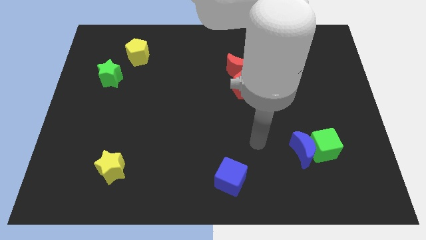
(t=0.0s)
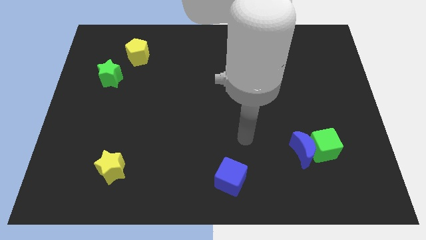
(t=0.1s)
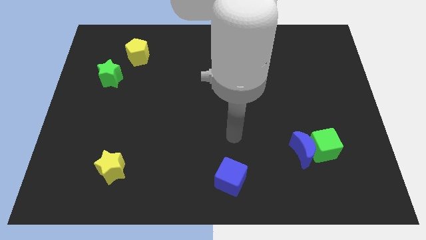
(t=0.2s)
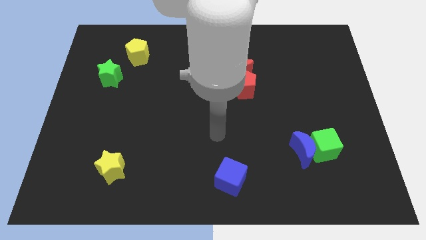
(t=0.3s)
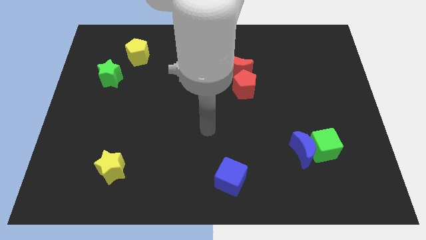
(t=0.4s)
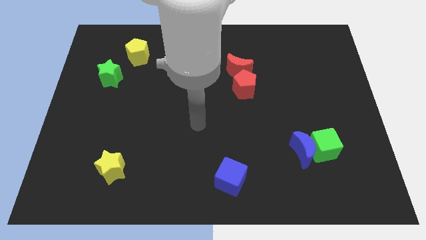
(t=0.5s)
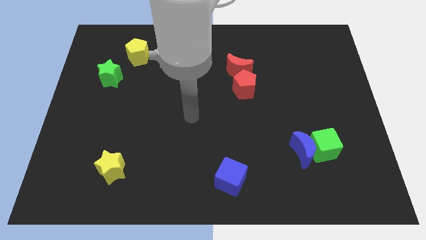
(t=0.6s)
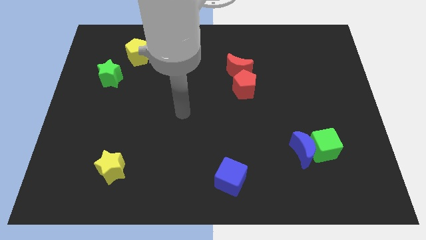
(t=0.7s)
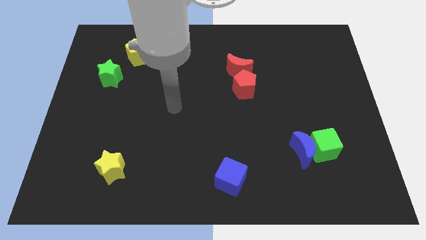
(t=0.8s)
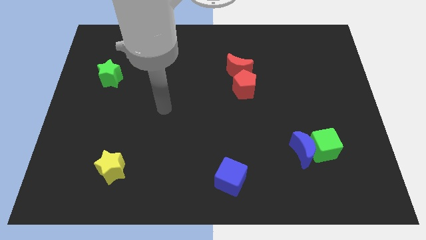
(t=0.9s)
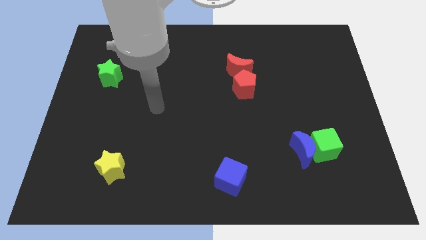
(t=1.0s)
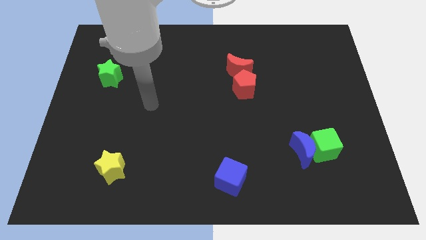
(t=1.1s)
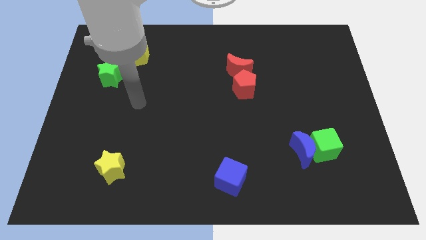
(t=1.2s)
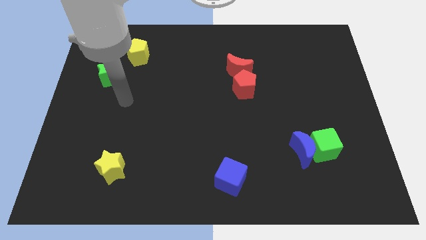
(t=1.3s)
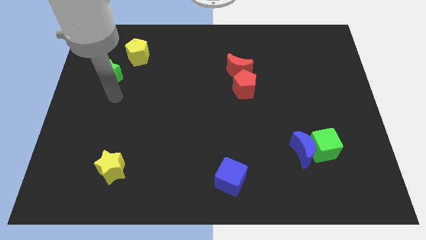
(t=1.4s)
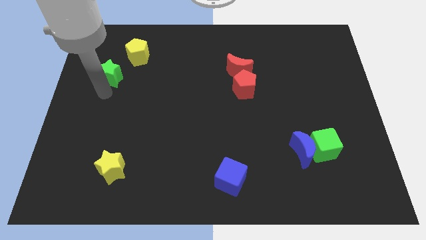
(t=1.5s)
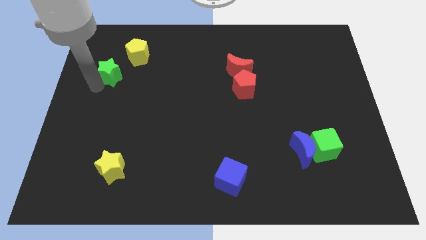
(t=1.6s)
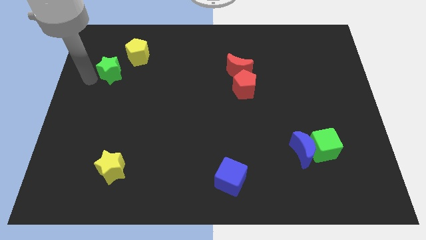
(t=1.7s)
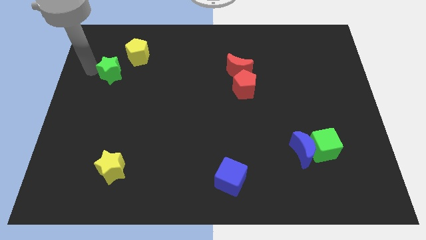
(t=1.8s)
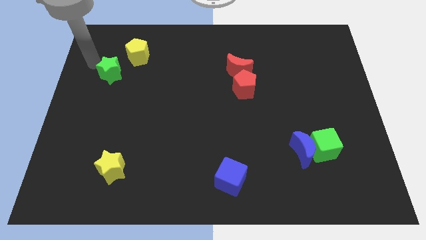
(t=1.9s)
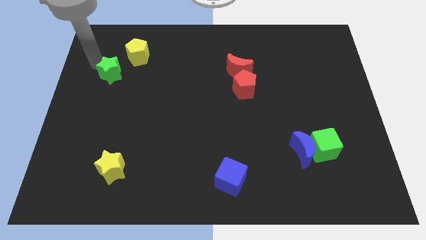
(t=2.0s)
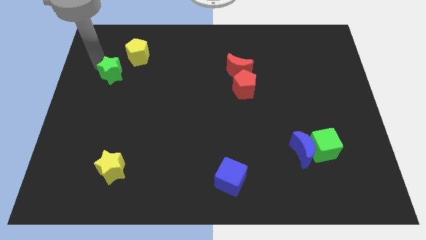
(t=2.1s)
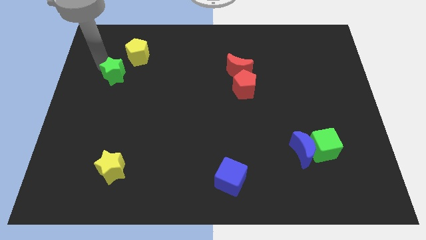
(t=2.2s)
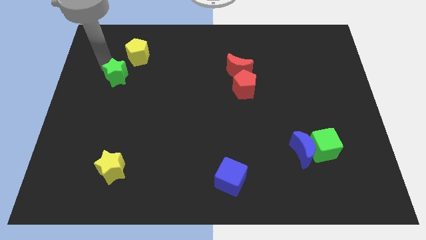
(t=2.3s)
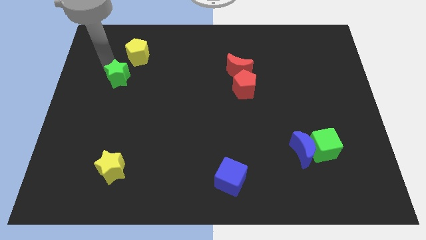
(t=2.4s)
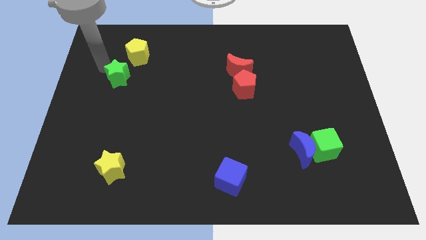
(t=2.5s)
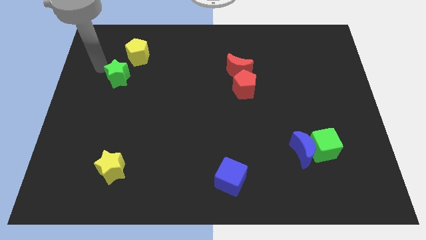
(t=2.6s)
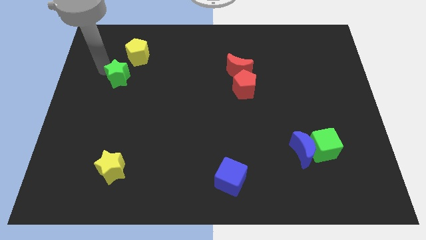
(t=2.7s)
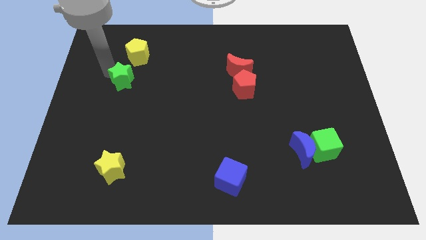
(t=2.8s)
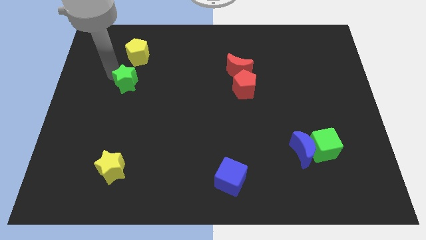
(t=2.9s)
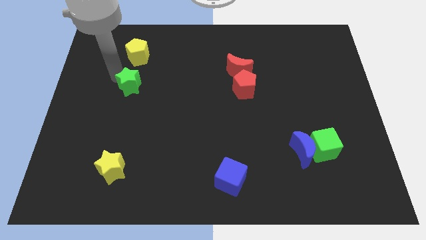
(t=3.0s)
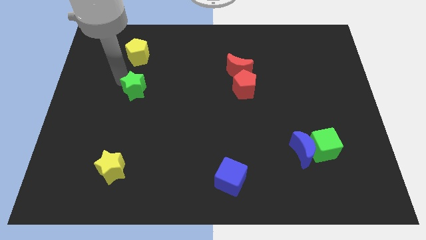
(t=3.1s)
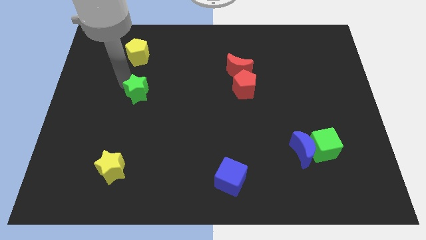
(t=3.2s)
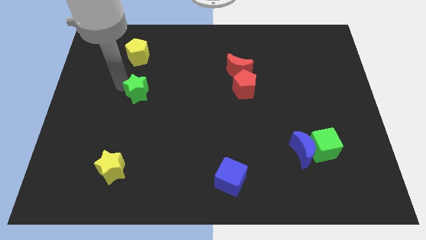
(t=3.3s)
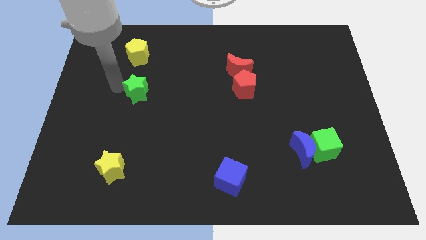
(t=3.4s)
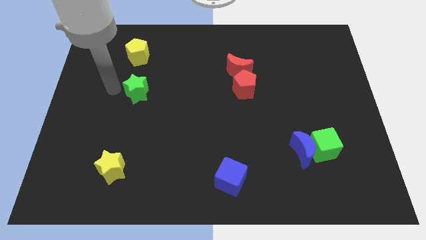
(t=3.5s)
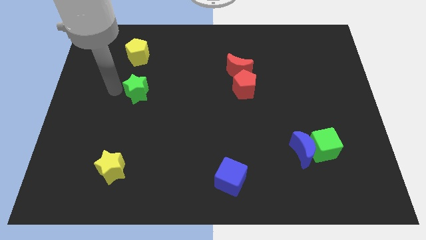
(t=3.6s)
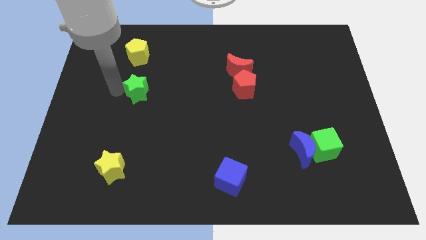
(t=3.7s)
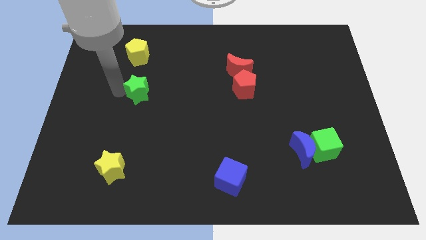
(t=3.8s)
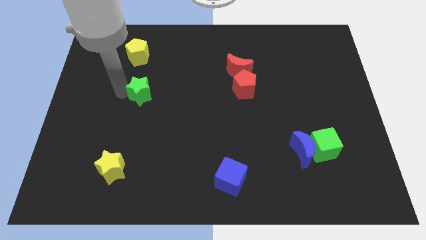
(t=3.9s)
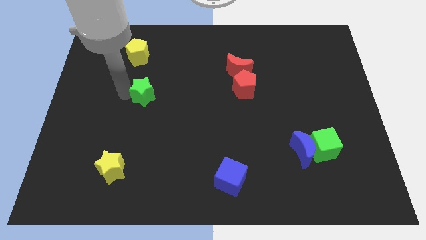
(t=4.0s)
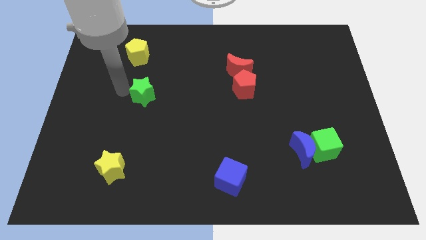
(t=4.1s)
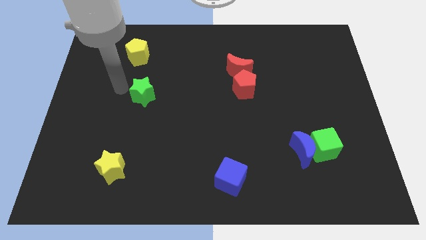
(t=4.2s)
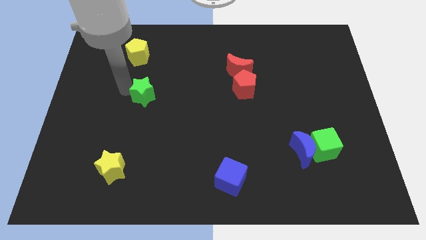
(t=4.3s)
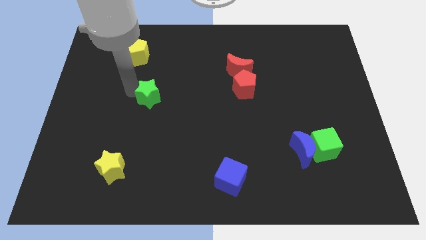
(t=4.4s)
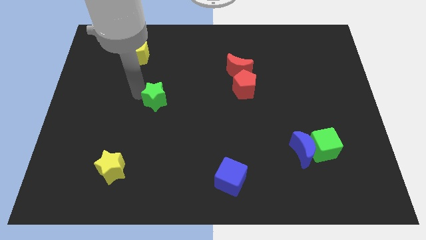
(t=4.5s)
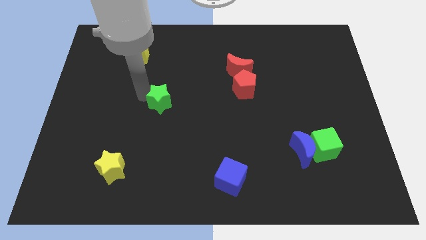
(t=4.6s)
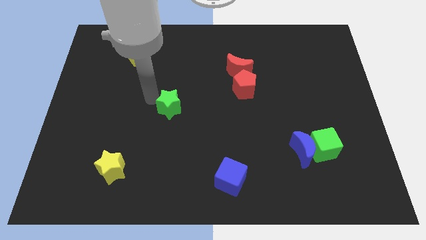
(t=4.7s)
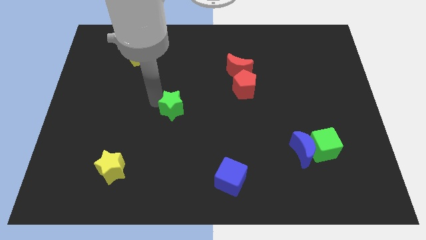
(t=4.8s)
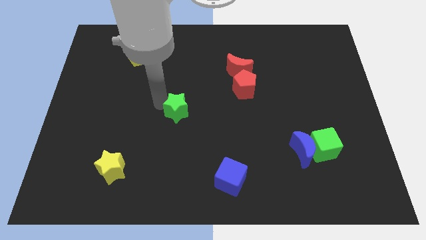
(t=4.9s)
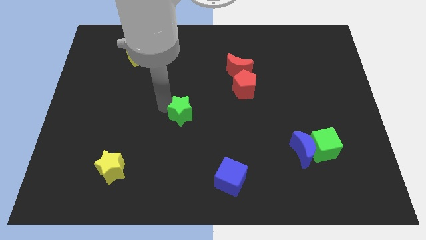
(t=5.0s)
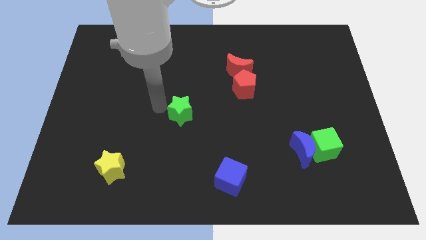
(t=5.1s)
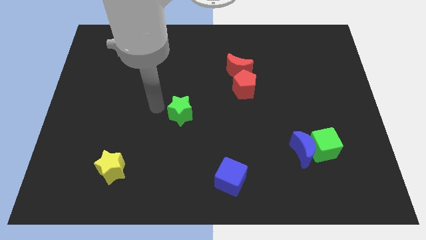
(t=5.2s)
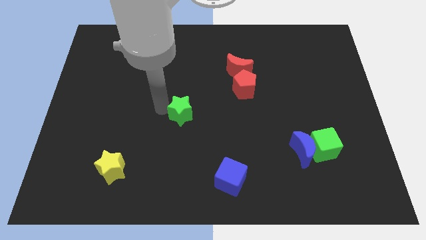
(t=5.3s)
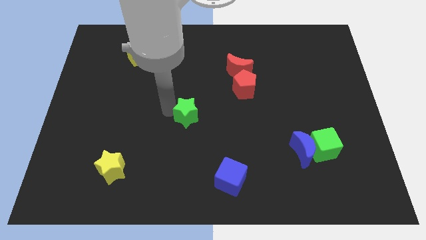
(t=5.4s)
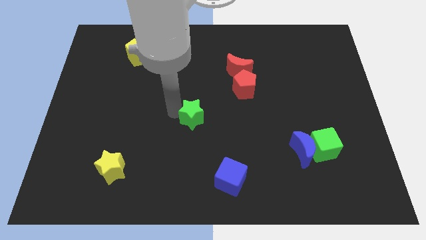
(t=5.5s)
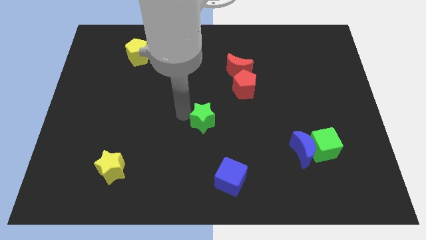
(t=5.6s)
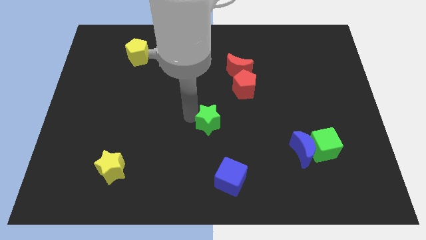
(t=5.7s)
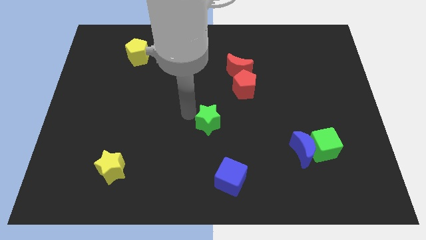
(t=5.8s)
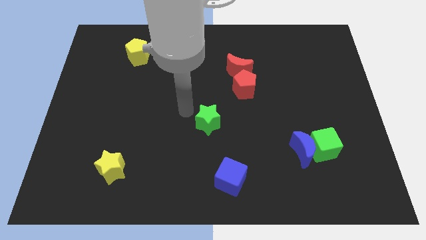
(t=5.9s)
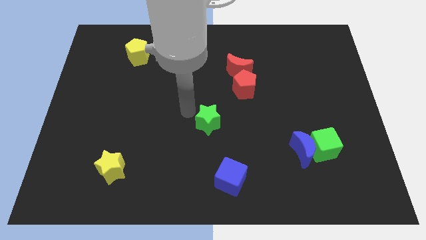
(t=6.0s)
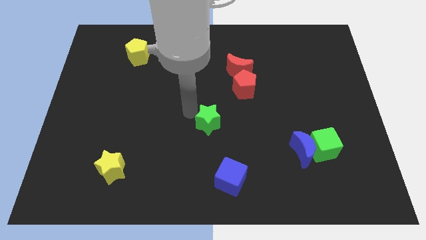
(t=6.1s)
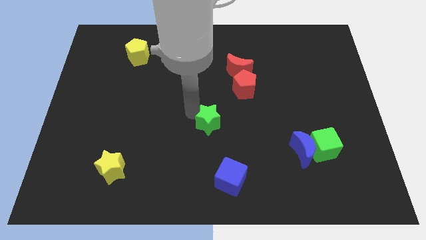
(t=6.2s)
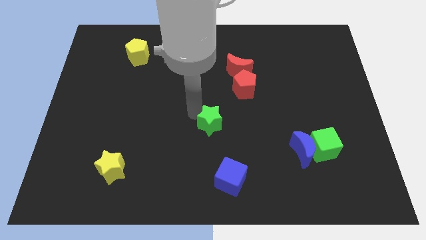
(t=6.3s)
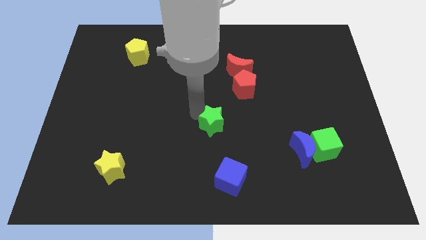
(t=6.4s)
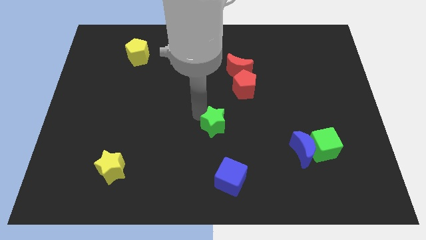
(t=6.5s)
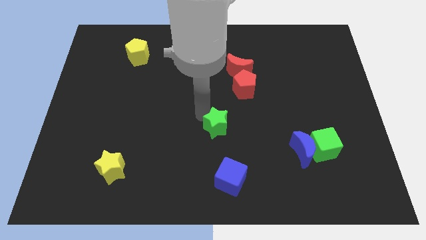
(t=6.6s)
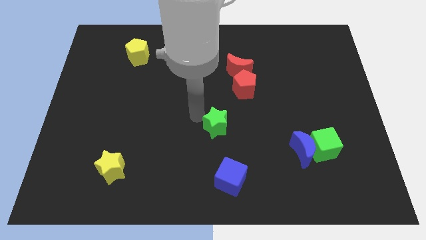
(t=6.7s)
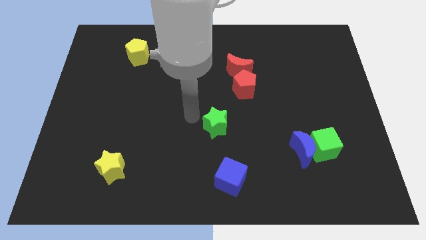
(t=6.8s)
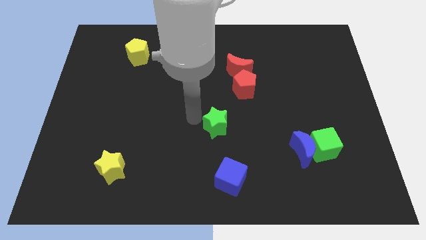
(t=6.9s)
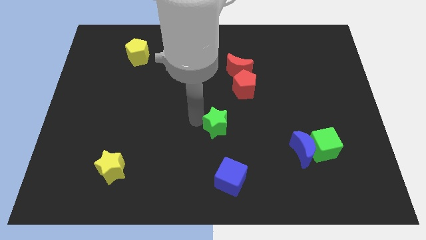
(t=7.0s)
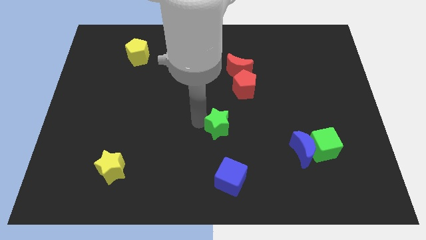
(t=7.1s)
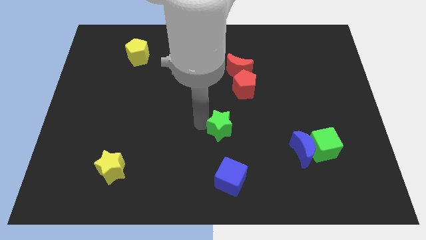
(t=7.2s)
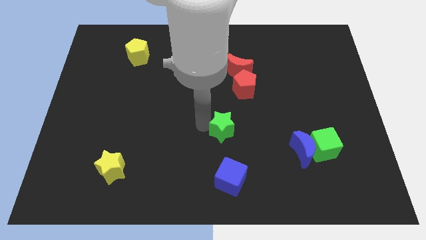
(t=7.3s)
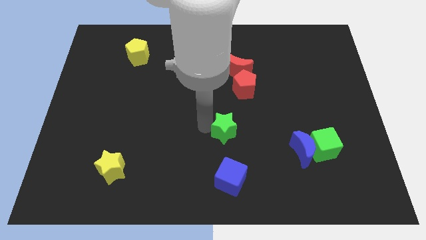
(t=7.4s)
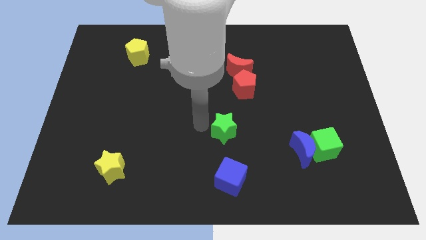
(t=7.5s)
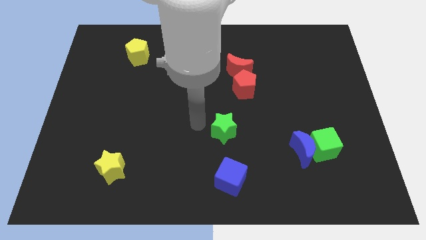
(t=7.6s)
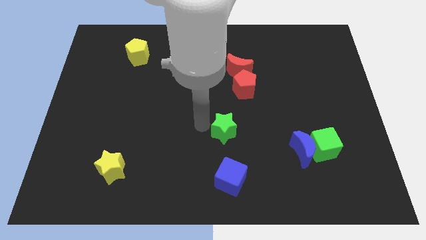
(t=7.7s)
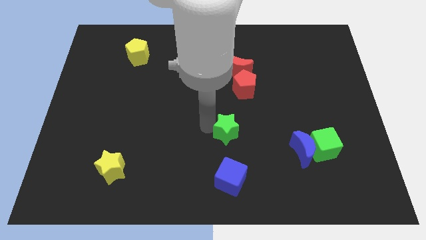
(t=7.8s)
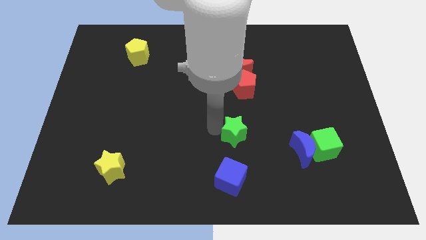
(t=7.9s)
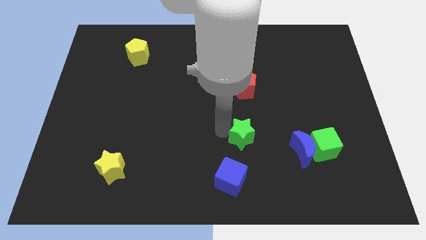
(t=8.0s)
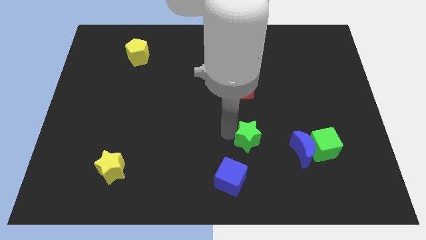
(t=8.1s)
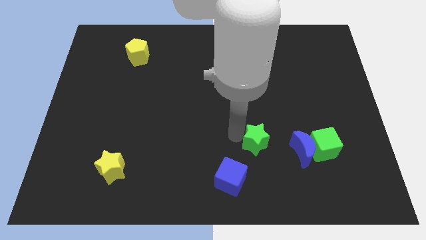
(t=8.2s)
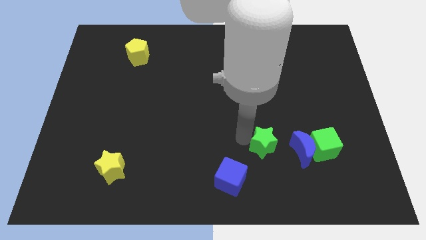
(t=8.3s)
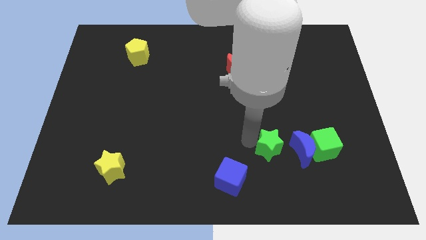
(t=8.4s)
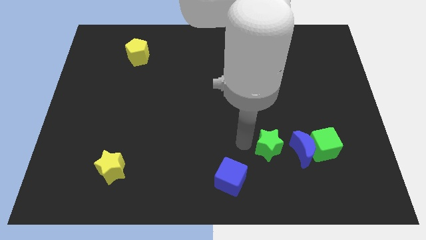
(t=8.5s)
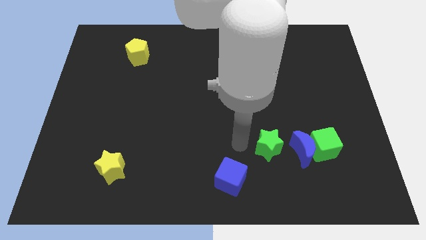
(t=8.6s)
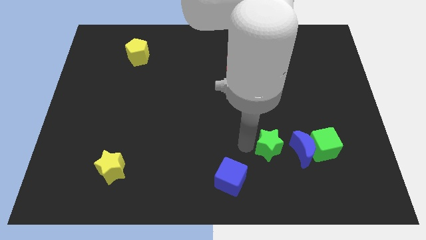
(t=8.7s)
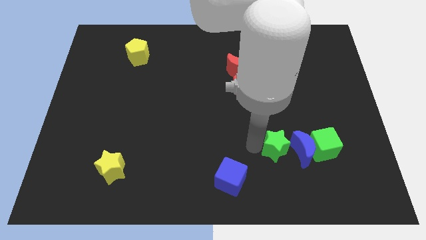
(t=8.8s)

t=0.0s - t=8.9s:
move the green star towards the blue moon
